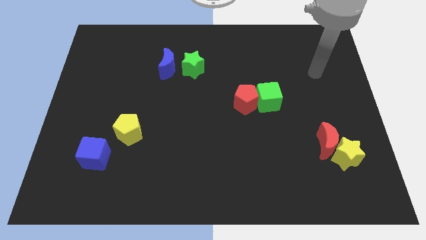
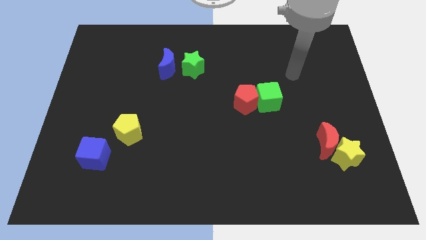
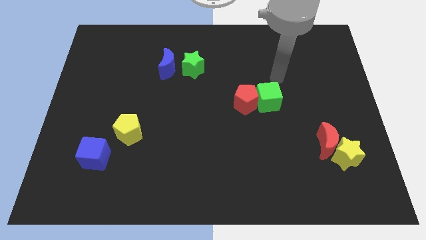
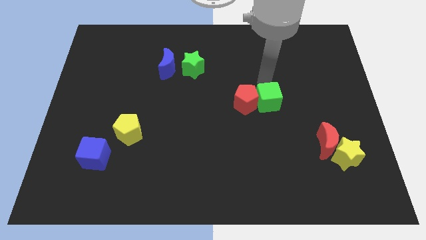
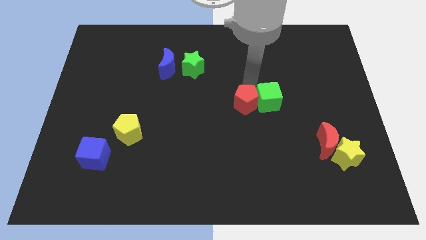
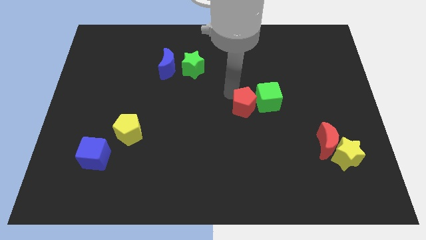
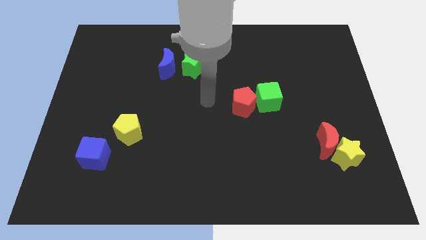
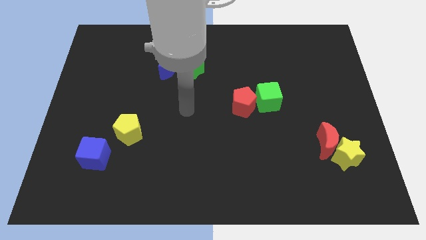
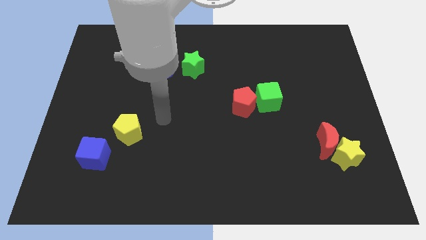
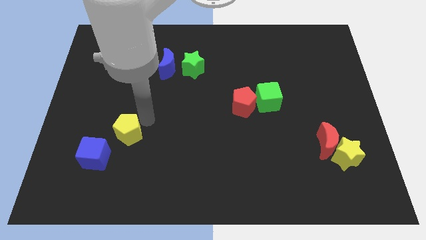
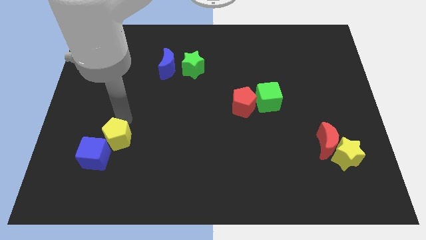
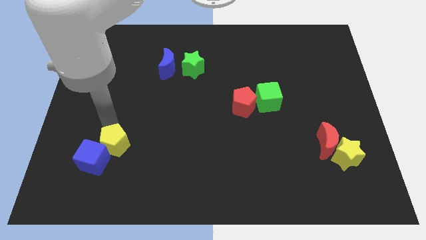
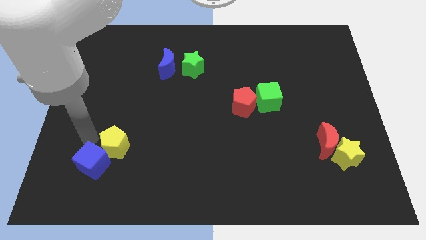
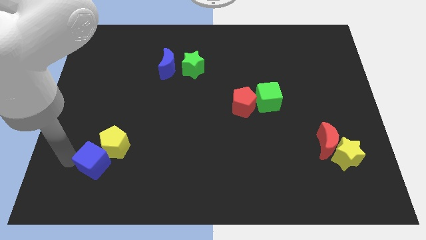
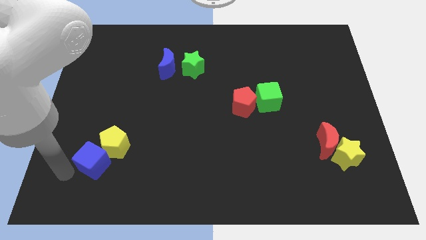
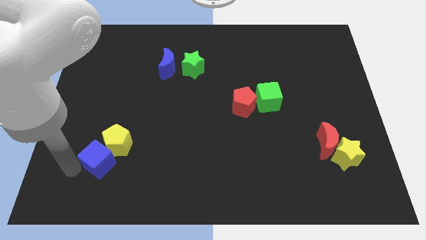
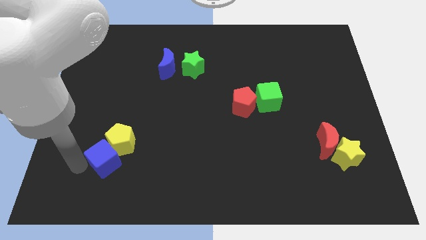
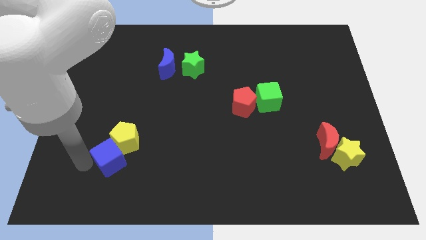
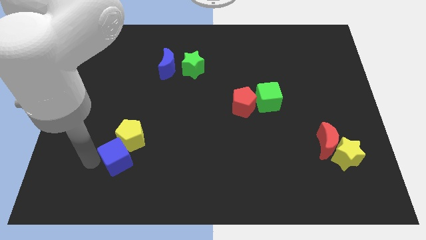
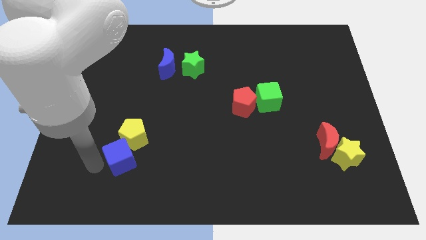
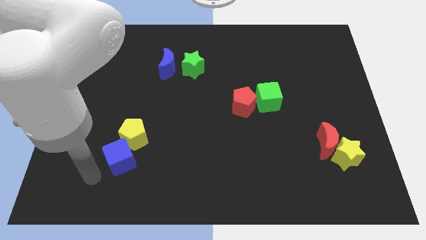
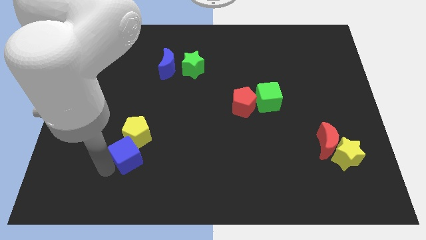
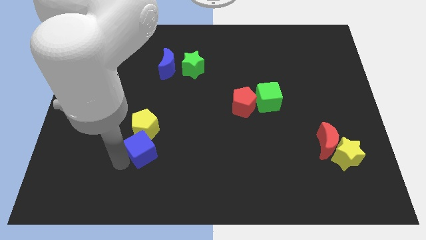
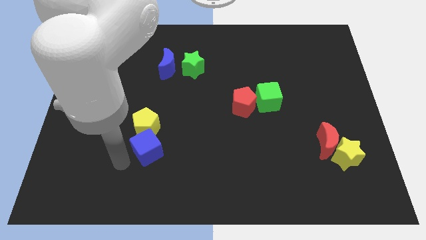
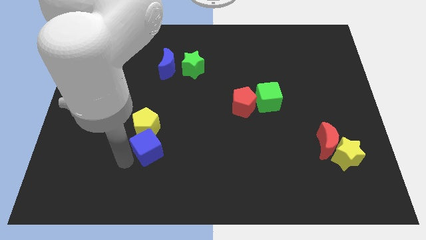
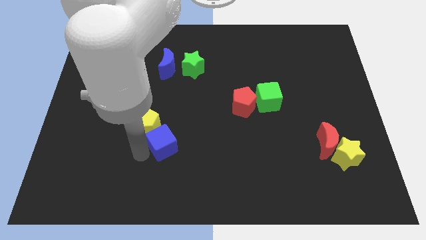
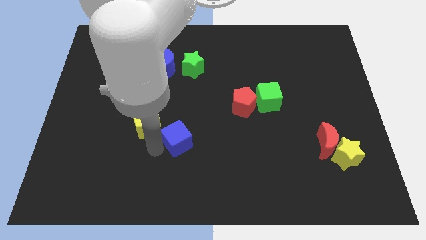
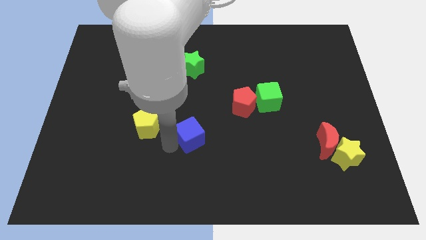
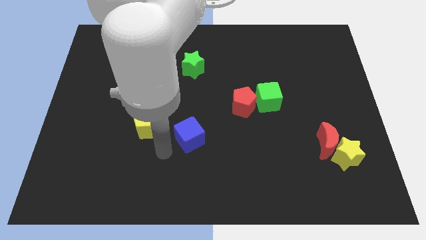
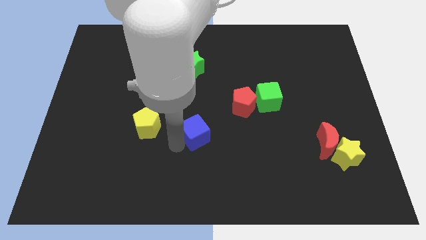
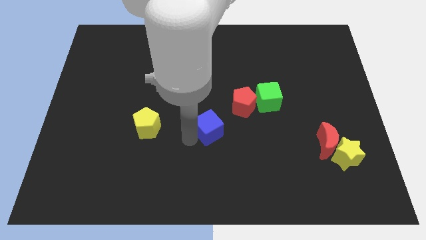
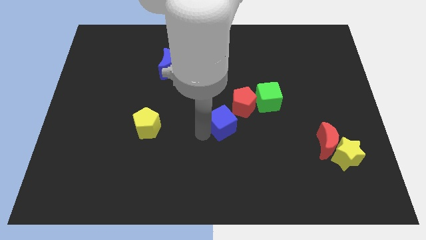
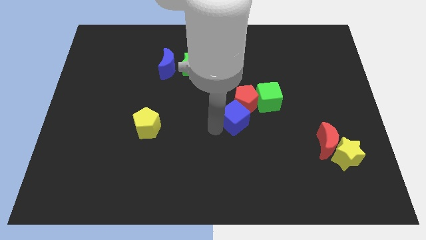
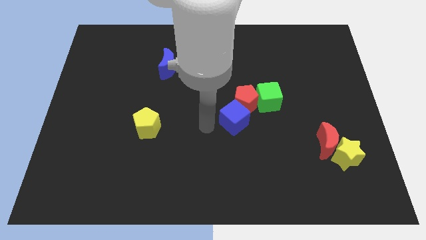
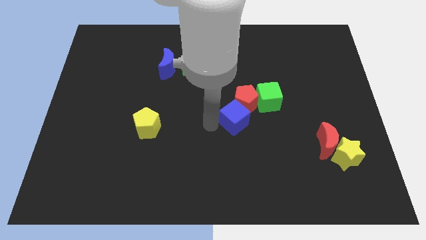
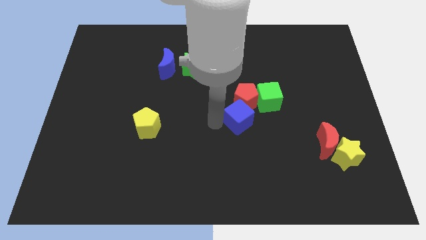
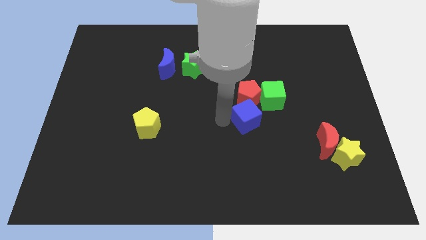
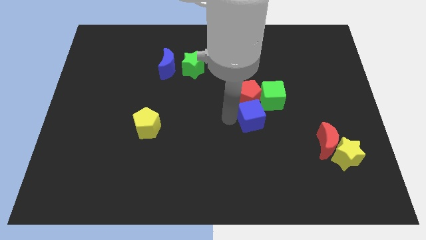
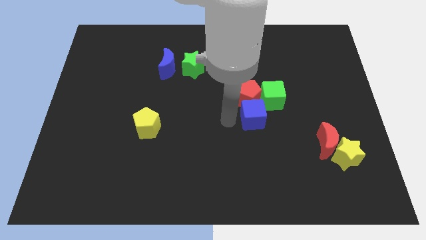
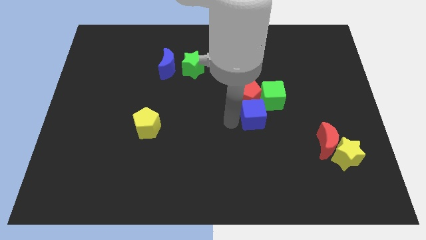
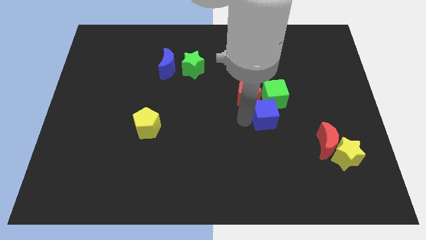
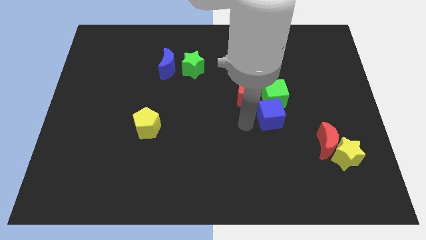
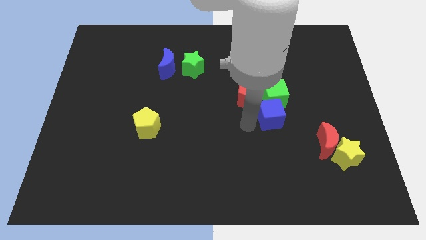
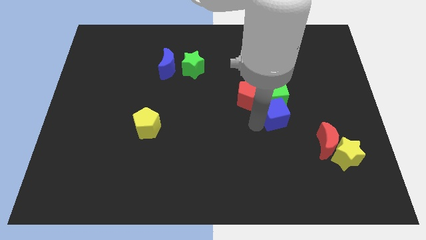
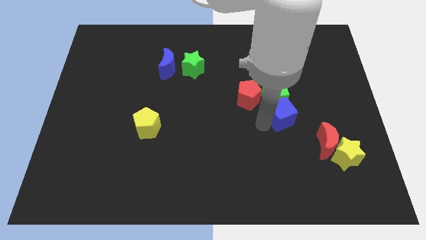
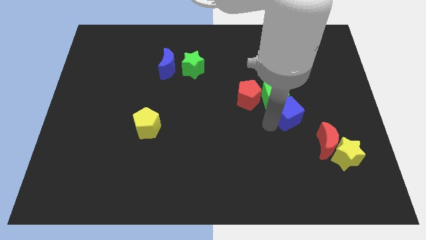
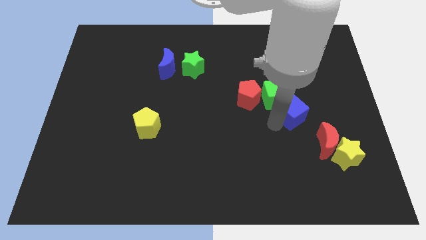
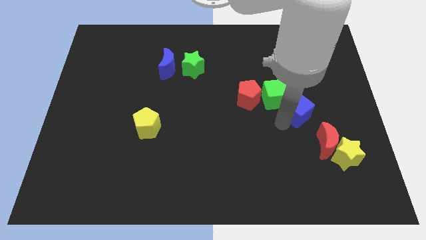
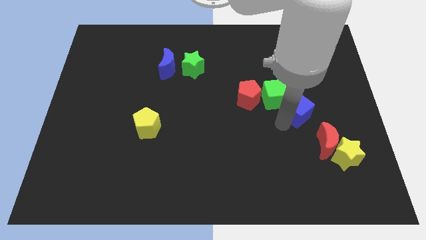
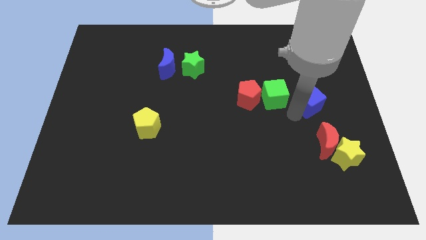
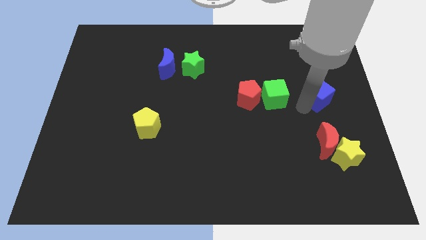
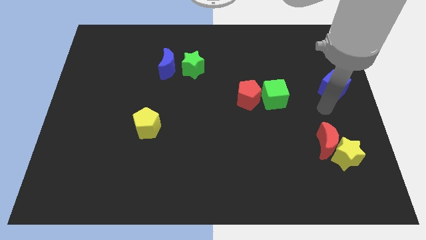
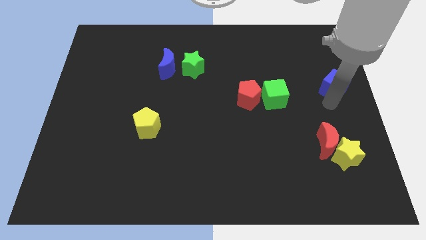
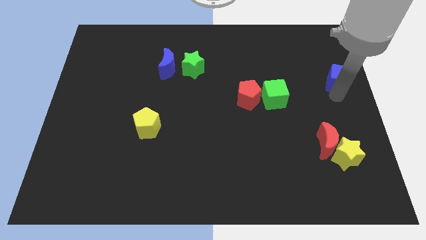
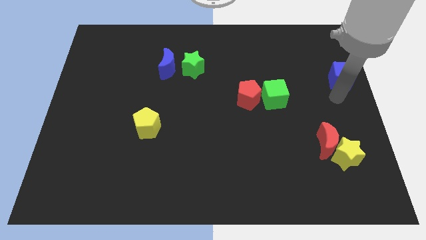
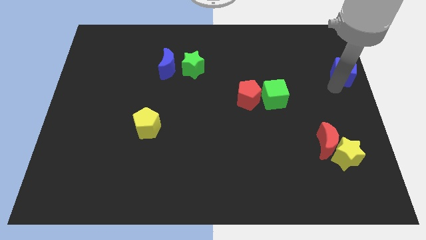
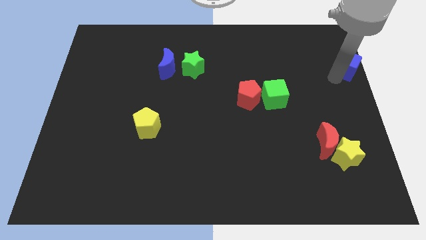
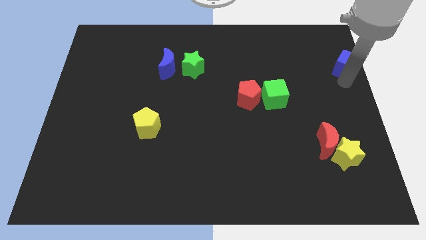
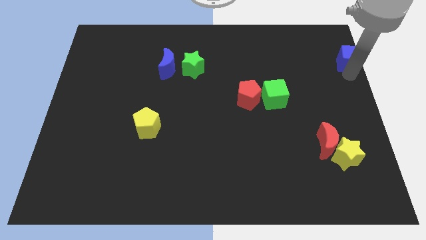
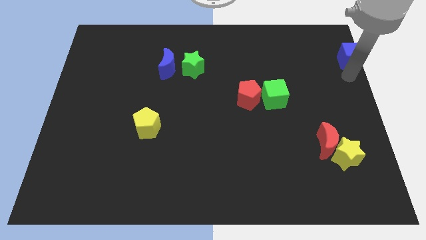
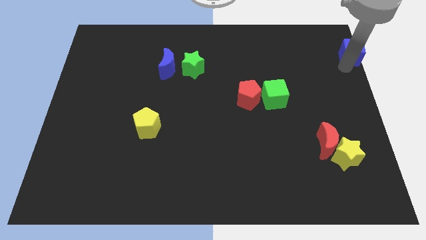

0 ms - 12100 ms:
push the blue cube to the top right
